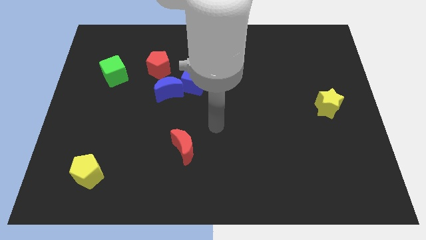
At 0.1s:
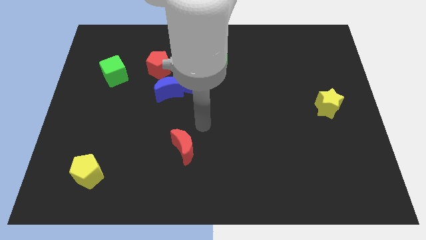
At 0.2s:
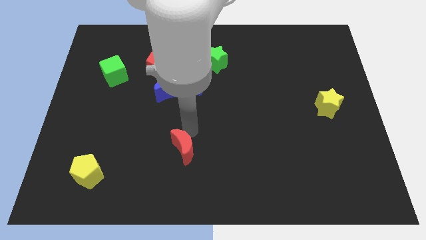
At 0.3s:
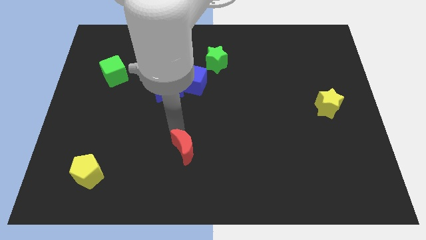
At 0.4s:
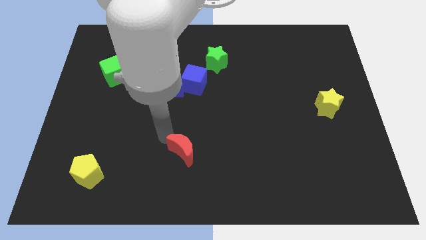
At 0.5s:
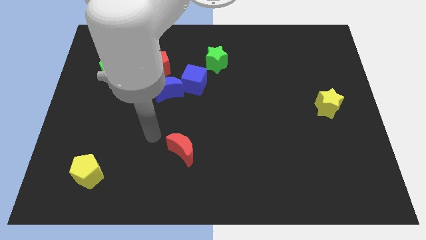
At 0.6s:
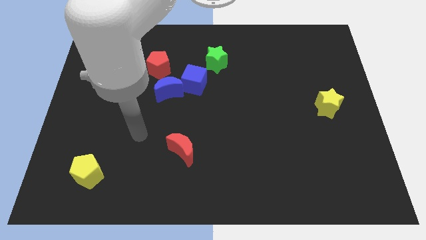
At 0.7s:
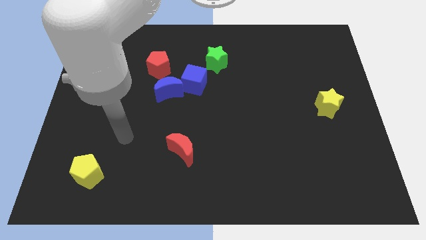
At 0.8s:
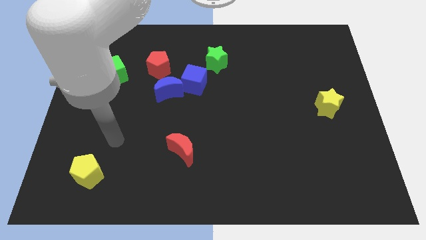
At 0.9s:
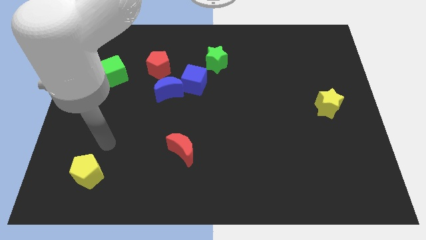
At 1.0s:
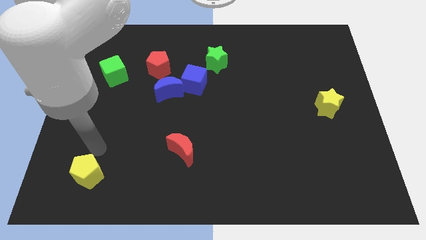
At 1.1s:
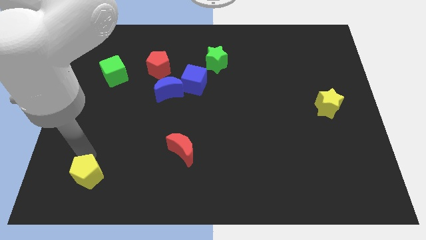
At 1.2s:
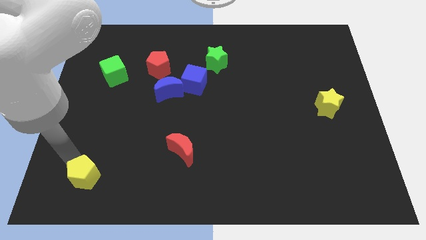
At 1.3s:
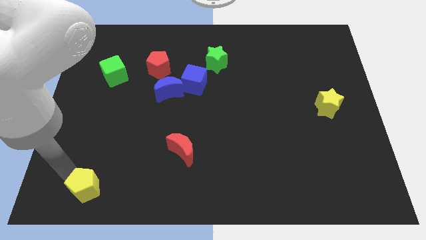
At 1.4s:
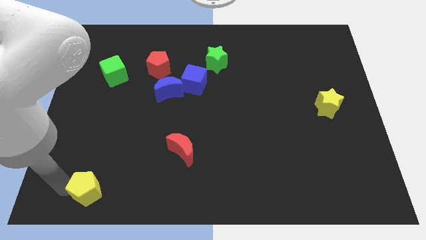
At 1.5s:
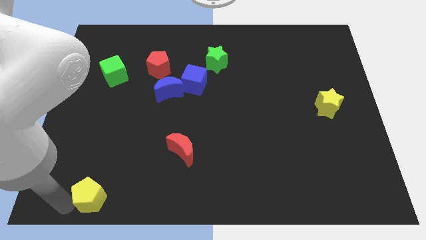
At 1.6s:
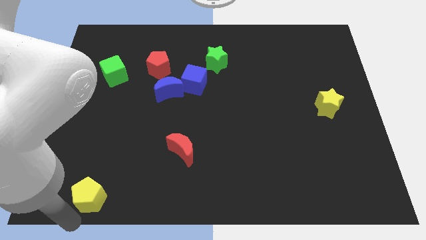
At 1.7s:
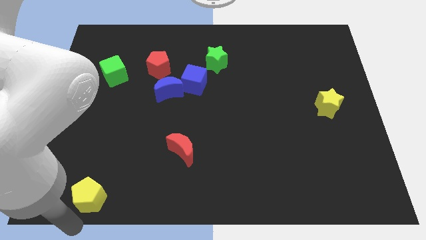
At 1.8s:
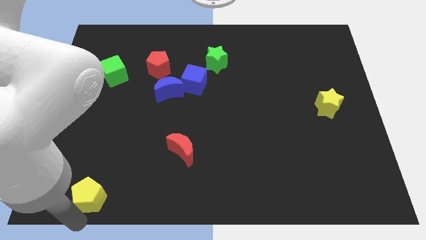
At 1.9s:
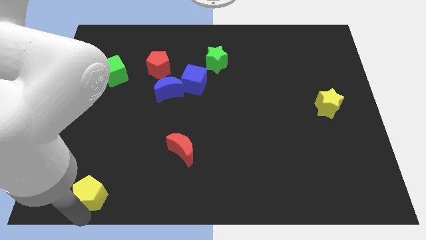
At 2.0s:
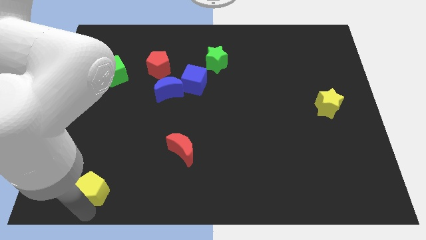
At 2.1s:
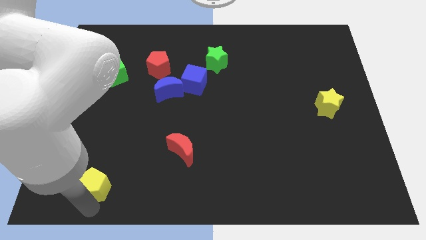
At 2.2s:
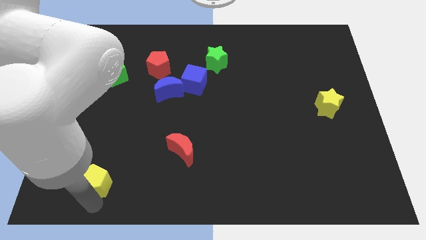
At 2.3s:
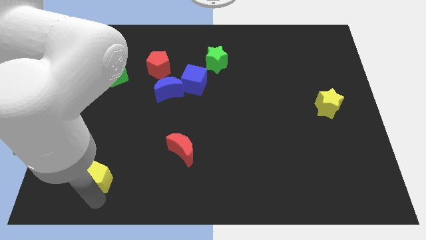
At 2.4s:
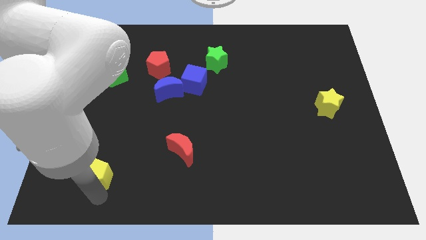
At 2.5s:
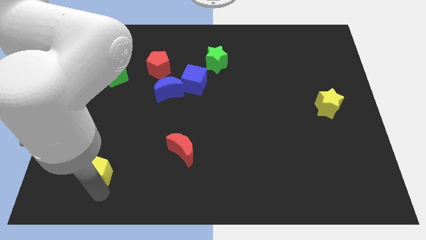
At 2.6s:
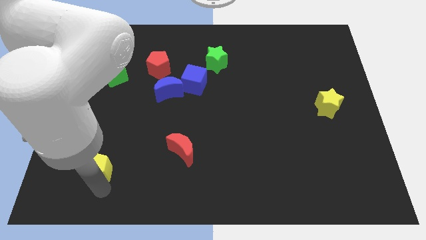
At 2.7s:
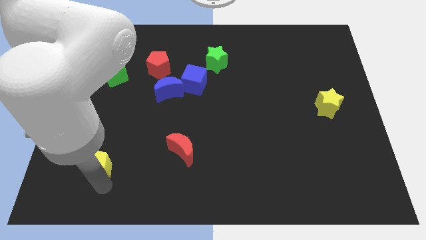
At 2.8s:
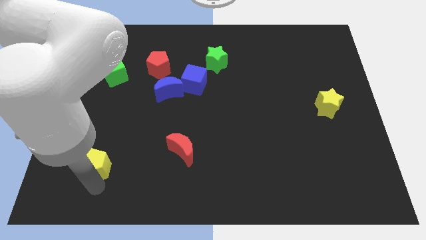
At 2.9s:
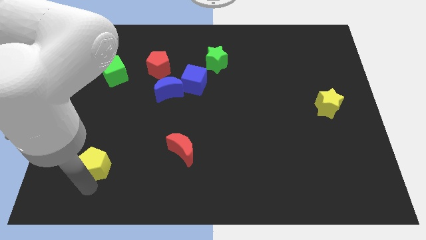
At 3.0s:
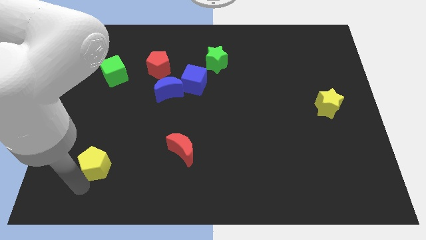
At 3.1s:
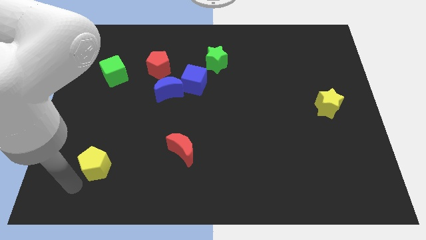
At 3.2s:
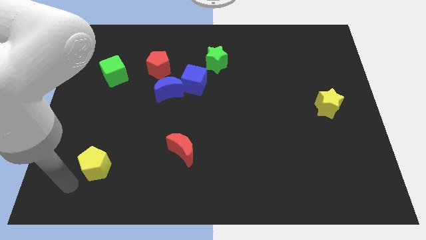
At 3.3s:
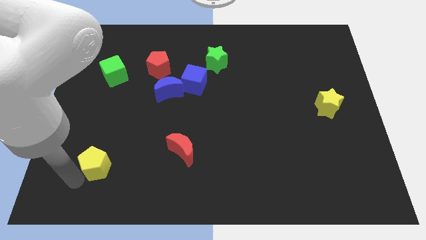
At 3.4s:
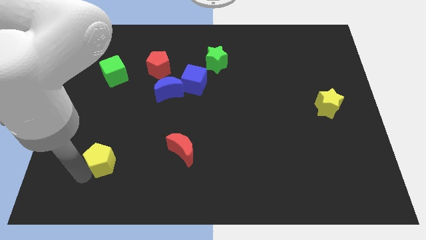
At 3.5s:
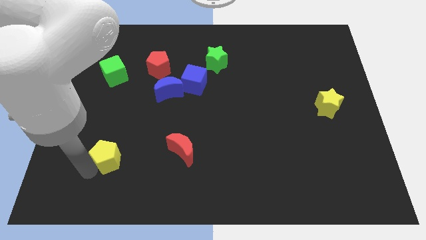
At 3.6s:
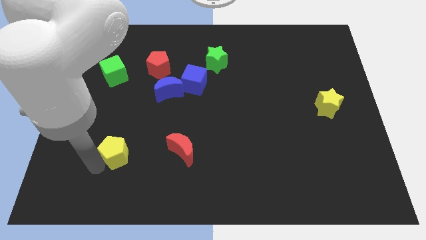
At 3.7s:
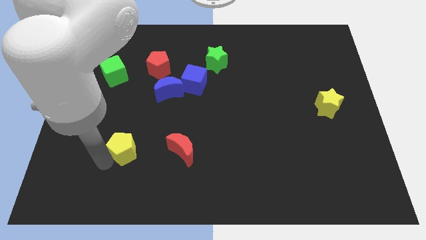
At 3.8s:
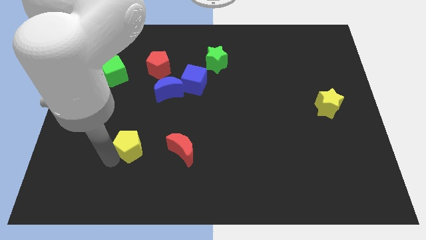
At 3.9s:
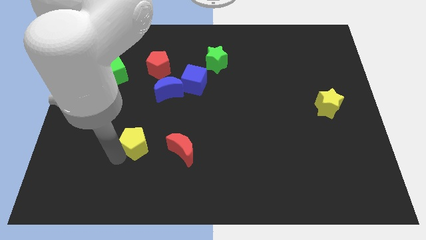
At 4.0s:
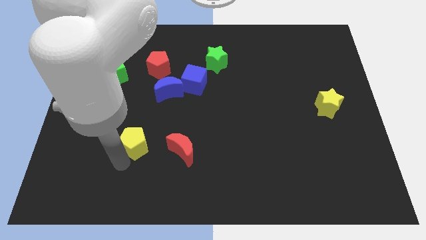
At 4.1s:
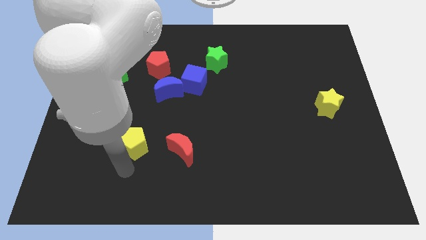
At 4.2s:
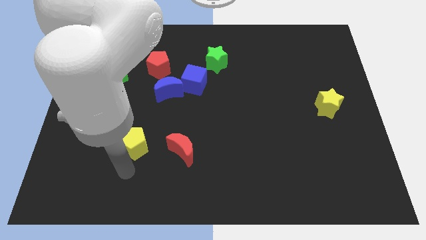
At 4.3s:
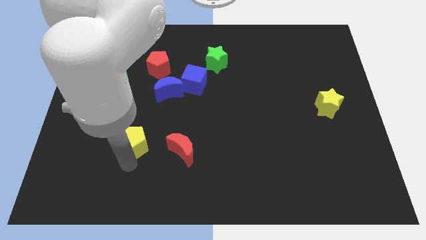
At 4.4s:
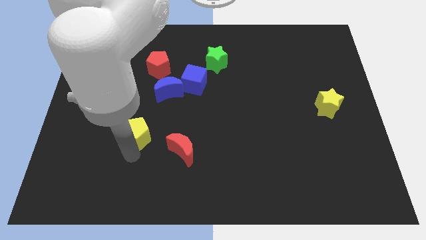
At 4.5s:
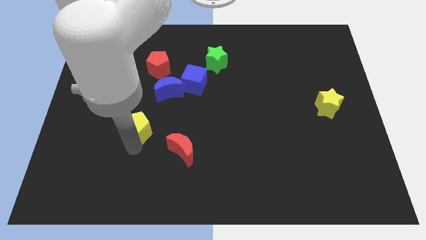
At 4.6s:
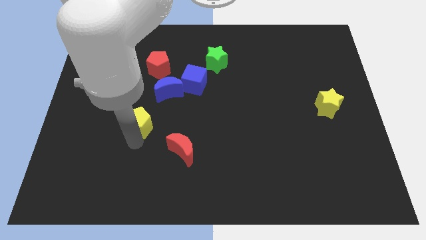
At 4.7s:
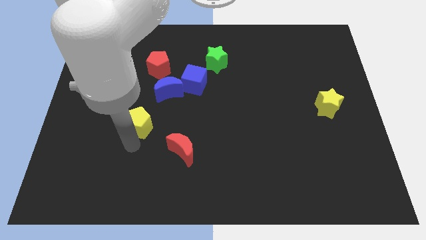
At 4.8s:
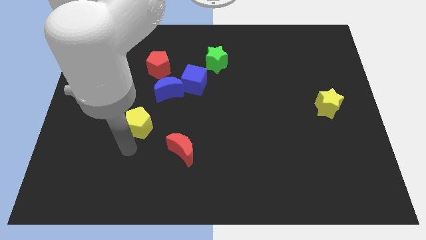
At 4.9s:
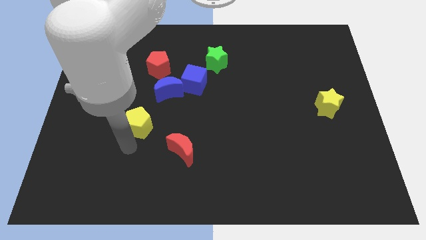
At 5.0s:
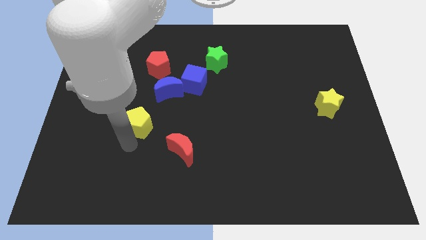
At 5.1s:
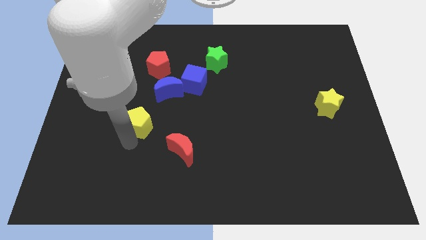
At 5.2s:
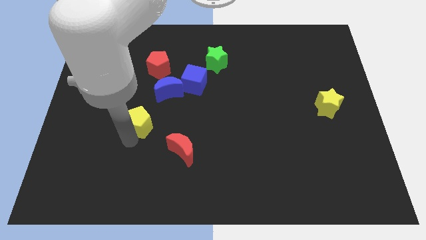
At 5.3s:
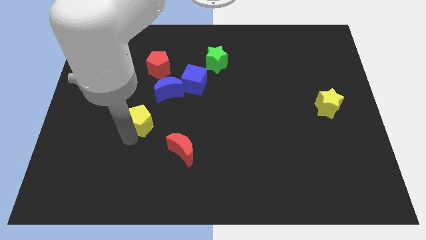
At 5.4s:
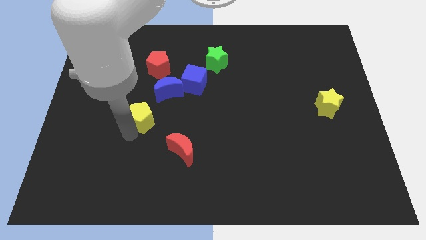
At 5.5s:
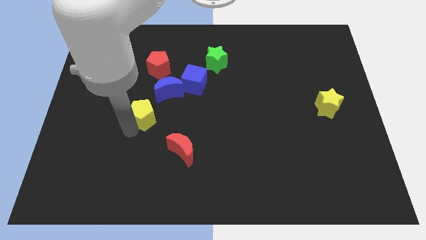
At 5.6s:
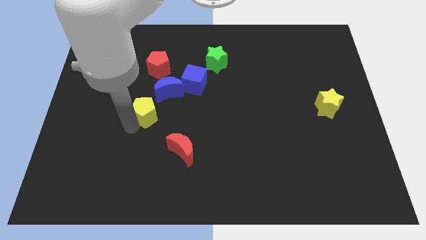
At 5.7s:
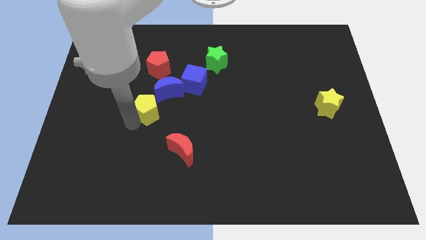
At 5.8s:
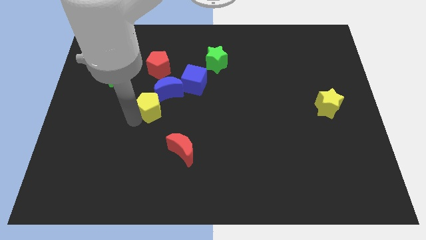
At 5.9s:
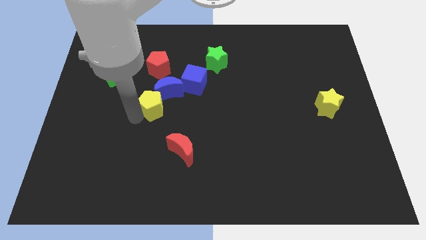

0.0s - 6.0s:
move the yellow pentagon next to the blue moon

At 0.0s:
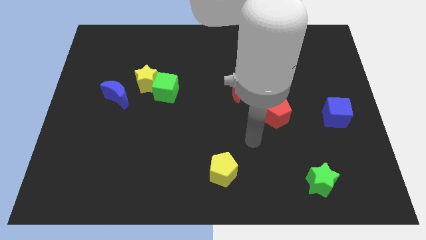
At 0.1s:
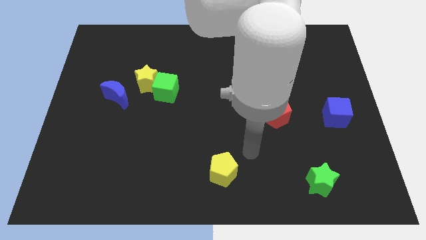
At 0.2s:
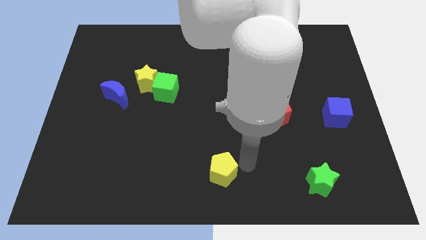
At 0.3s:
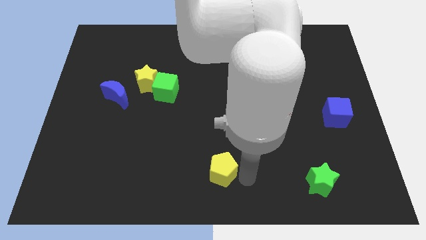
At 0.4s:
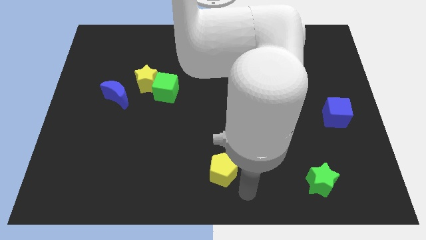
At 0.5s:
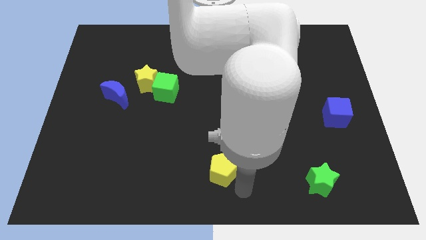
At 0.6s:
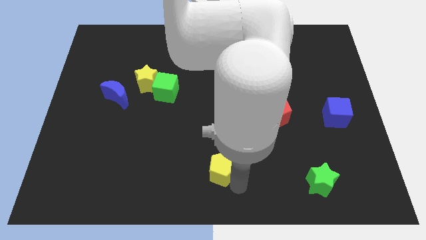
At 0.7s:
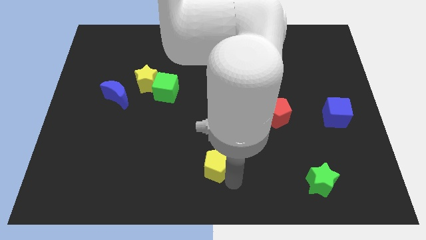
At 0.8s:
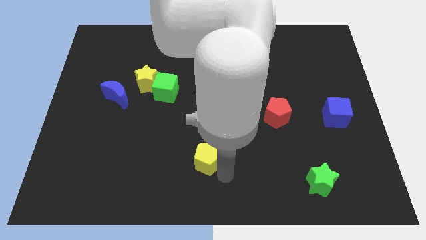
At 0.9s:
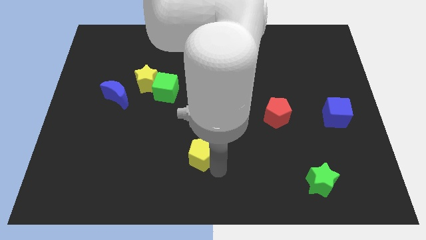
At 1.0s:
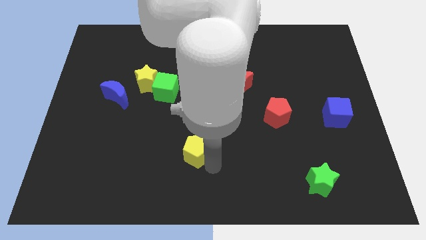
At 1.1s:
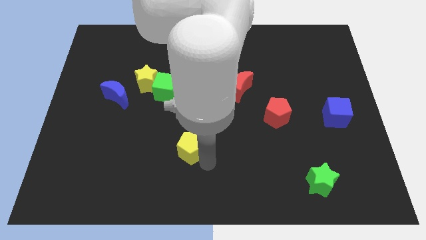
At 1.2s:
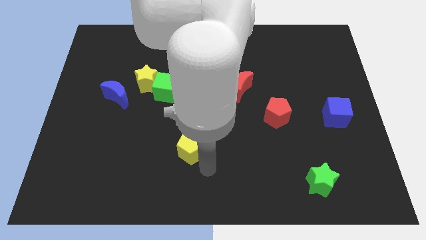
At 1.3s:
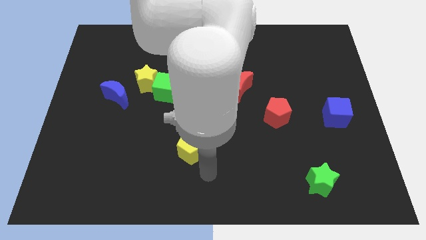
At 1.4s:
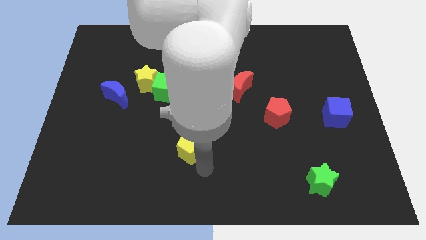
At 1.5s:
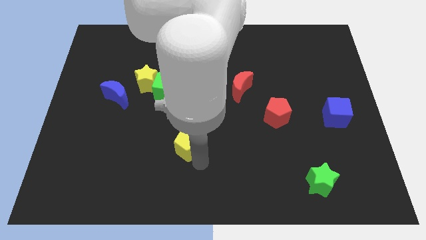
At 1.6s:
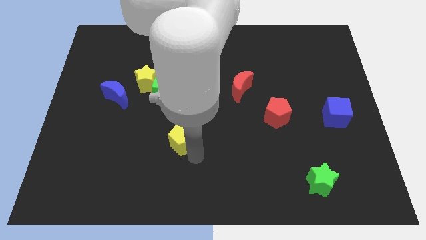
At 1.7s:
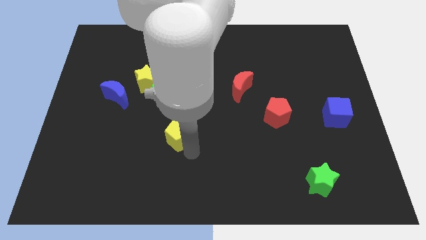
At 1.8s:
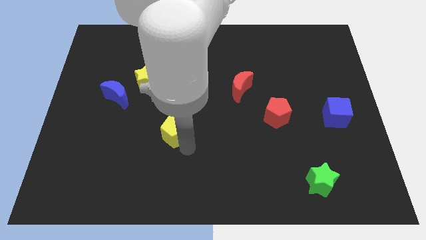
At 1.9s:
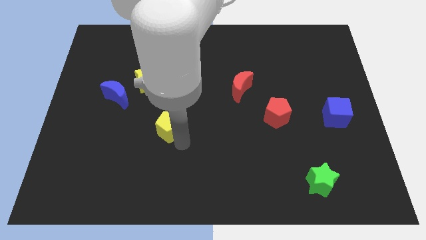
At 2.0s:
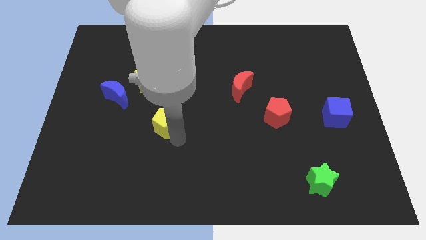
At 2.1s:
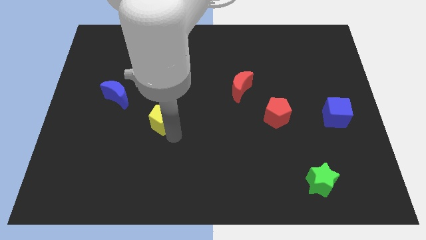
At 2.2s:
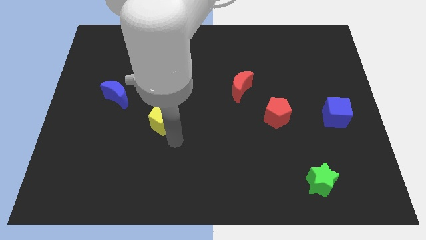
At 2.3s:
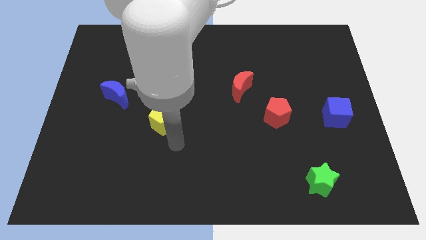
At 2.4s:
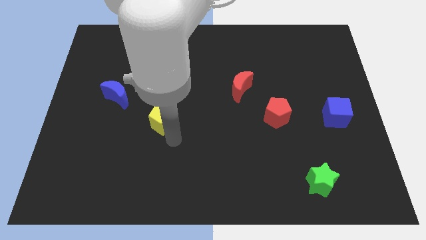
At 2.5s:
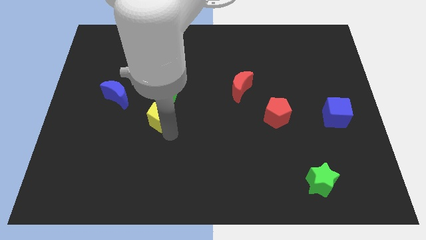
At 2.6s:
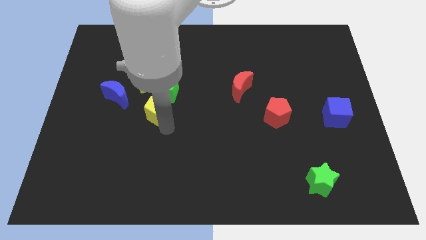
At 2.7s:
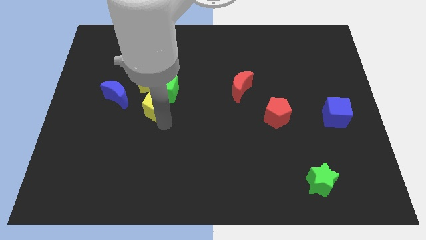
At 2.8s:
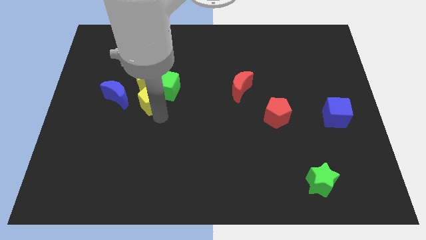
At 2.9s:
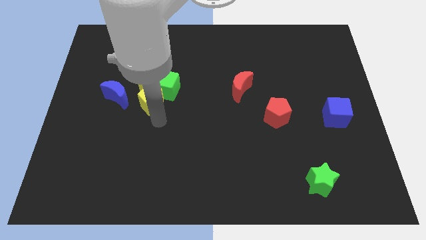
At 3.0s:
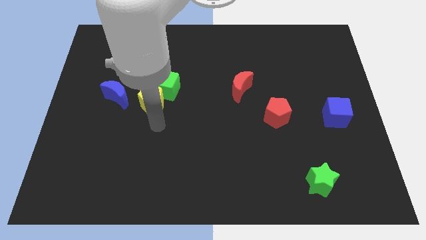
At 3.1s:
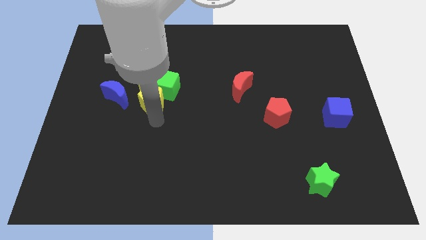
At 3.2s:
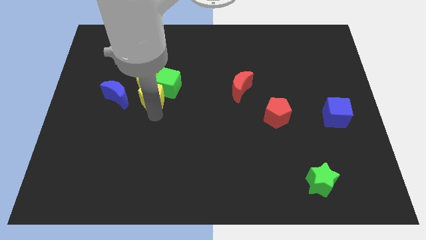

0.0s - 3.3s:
slide the yellow pentagon to the yellow star
